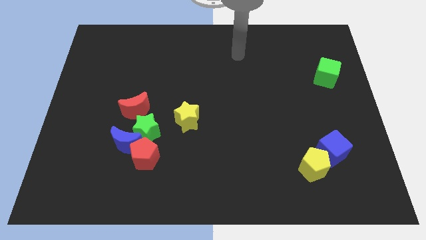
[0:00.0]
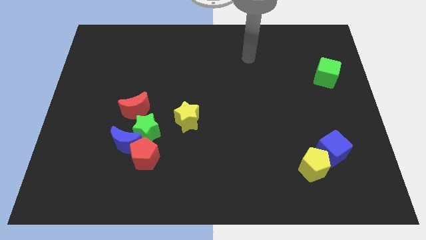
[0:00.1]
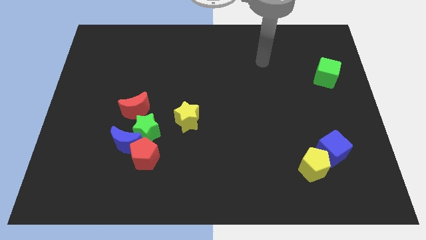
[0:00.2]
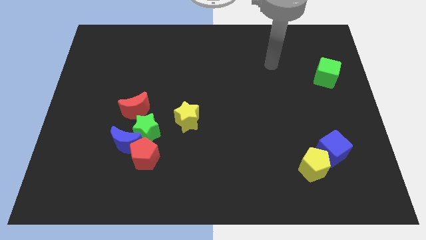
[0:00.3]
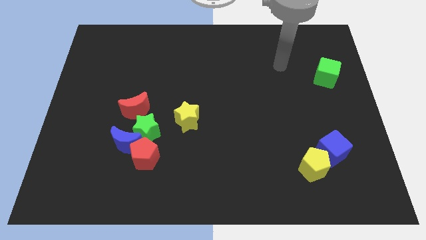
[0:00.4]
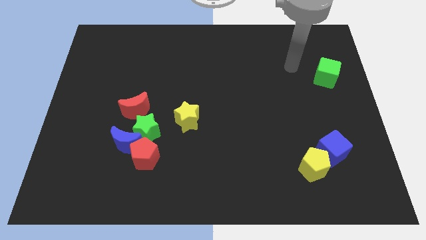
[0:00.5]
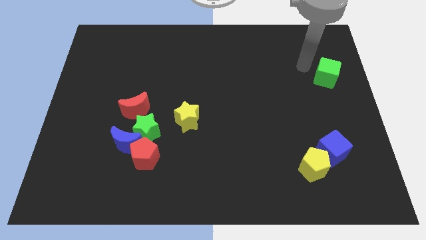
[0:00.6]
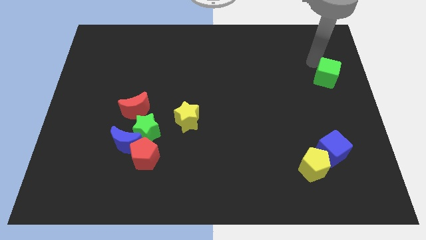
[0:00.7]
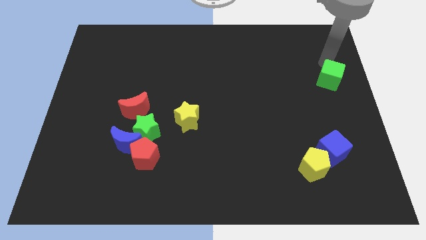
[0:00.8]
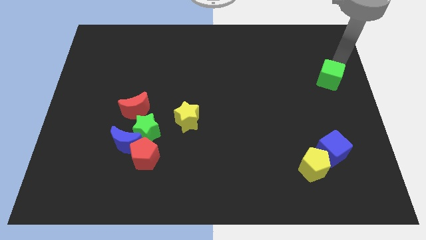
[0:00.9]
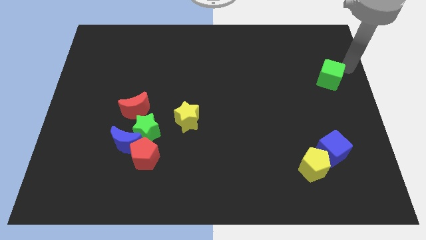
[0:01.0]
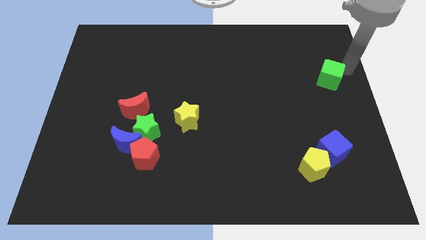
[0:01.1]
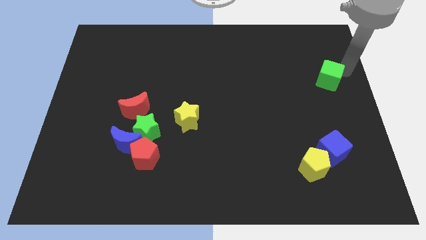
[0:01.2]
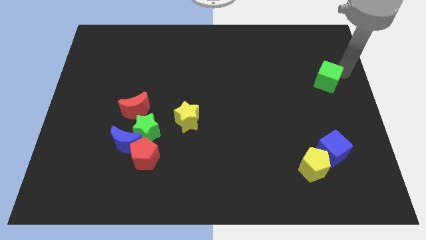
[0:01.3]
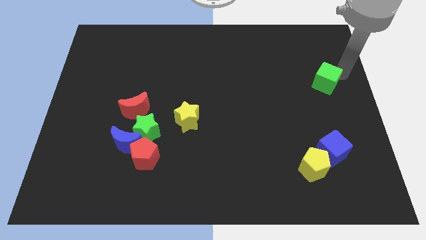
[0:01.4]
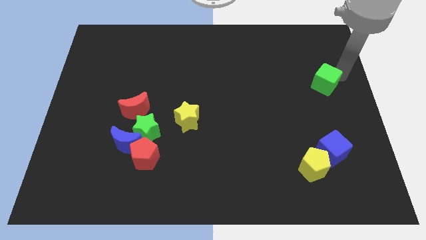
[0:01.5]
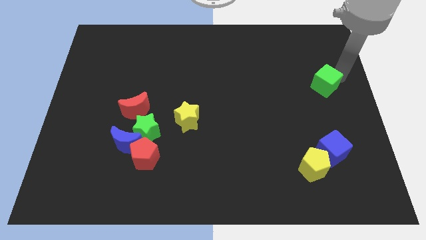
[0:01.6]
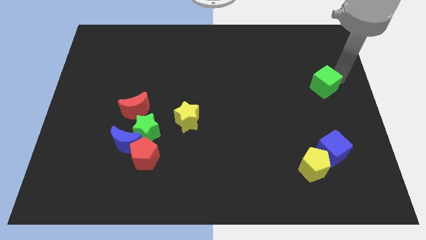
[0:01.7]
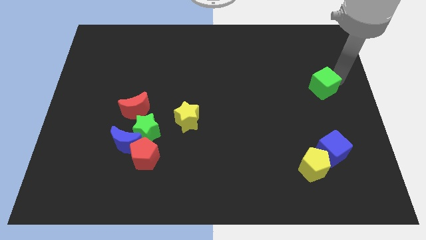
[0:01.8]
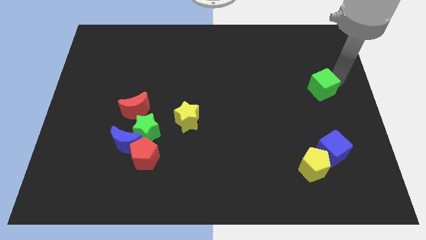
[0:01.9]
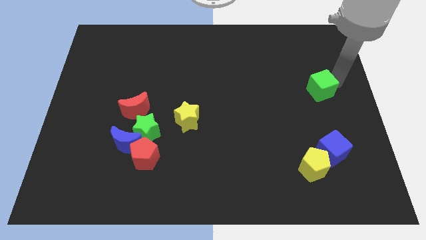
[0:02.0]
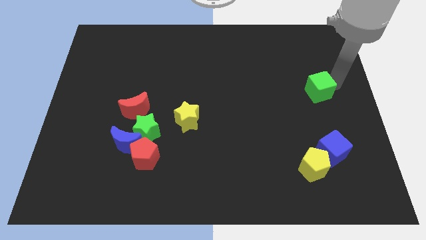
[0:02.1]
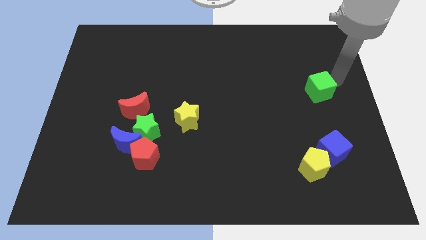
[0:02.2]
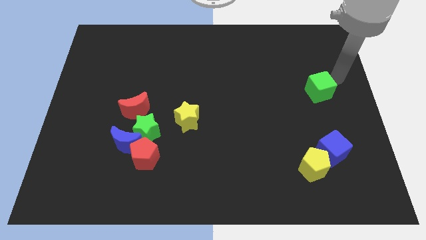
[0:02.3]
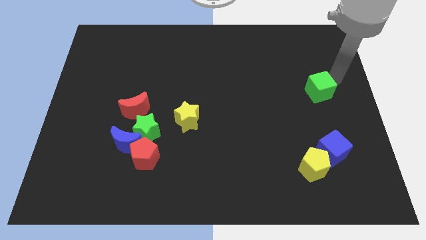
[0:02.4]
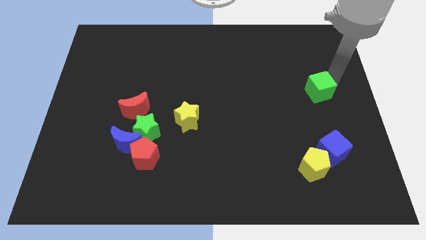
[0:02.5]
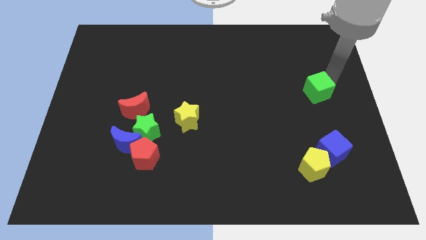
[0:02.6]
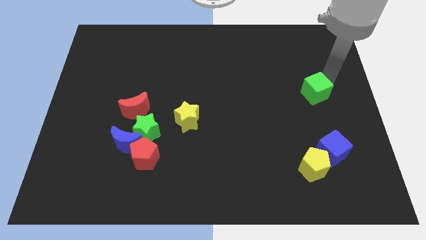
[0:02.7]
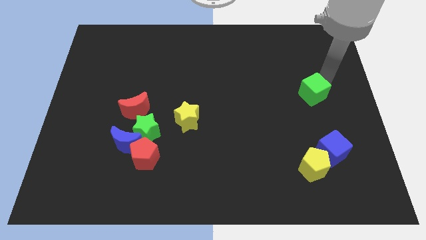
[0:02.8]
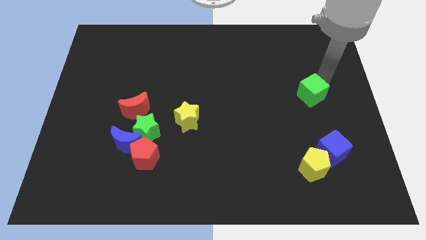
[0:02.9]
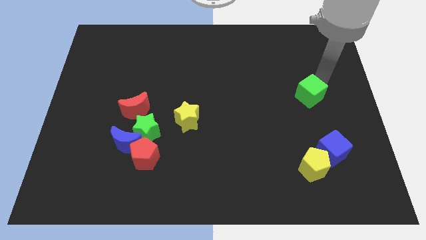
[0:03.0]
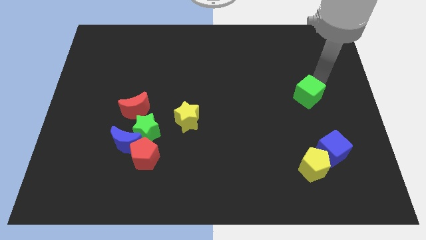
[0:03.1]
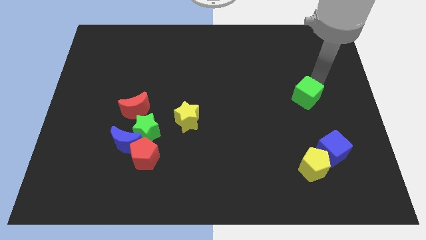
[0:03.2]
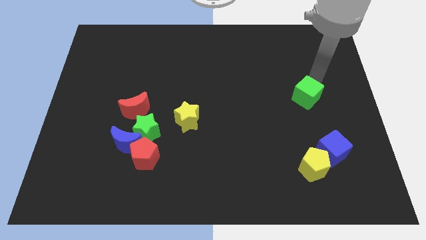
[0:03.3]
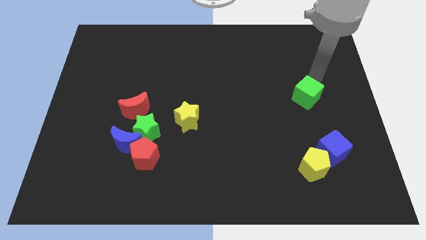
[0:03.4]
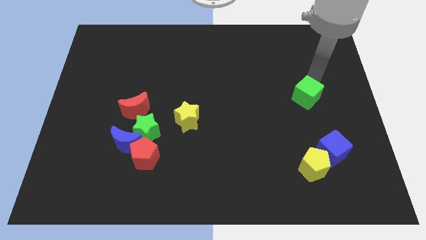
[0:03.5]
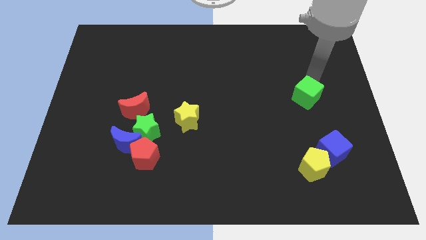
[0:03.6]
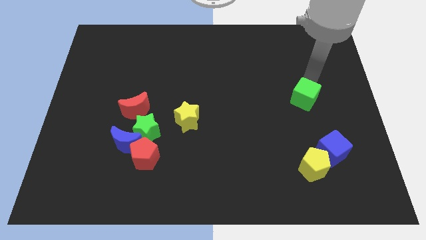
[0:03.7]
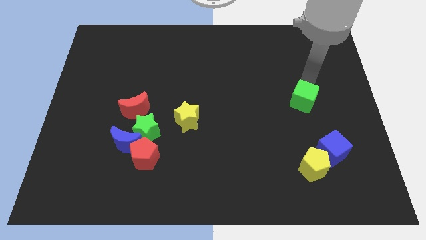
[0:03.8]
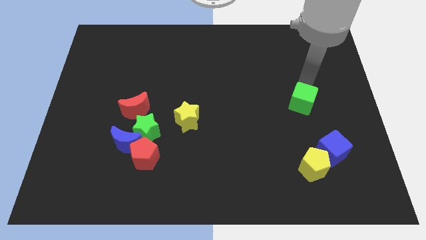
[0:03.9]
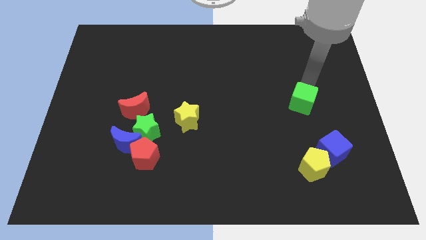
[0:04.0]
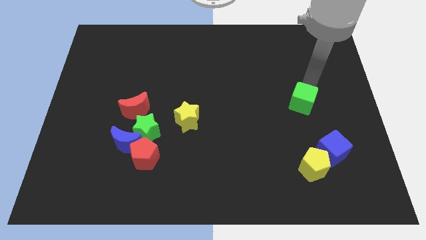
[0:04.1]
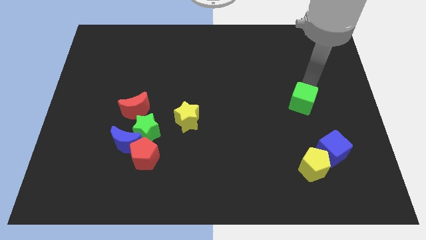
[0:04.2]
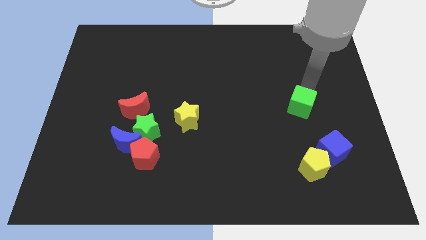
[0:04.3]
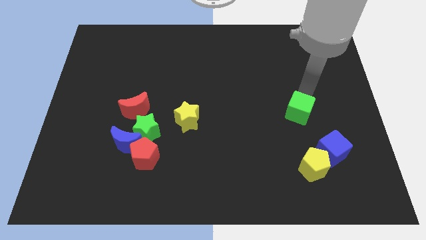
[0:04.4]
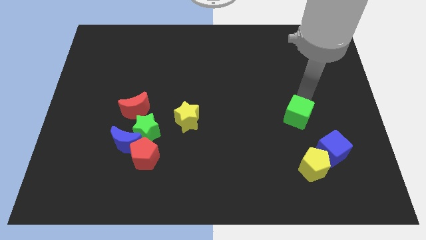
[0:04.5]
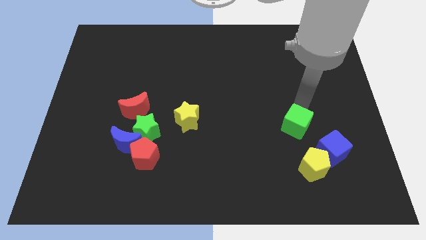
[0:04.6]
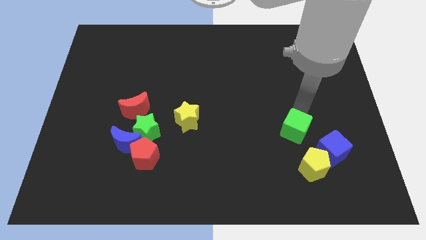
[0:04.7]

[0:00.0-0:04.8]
move the green cube diagonally up and to the left of the yellow pentagon

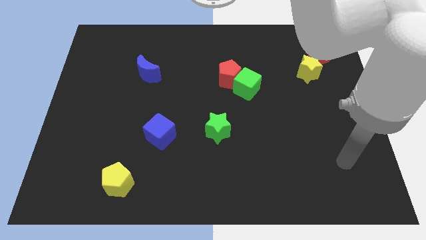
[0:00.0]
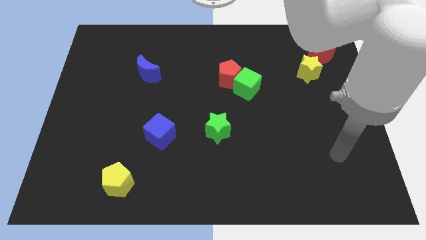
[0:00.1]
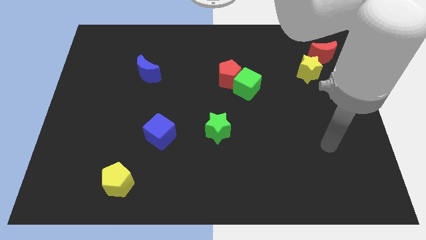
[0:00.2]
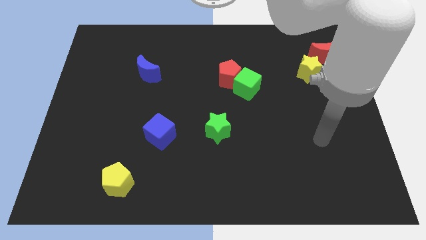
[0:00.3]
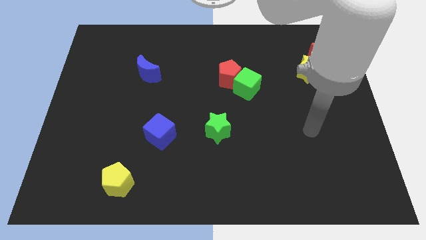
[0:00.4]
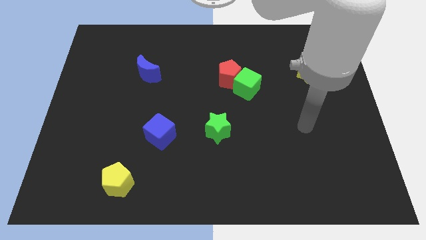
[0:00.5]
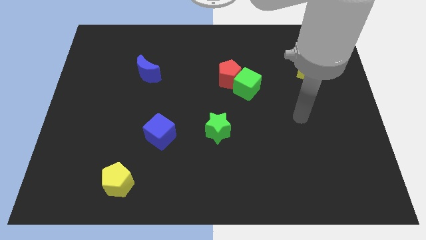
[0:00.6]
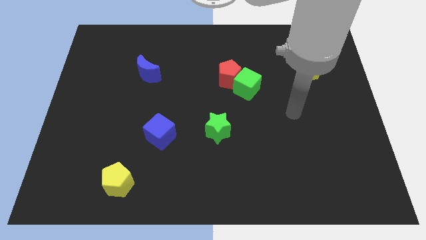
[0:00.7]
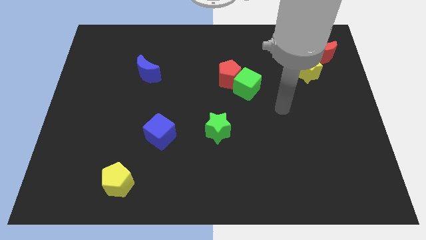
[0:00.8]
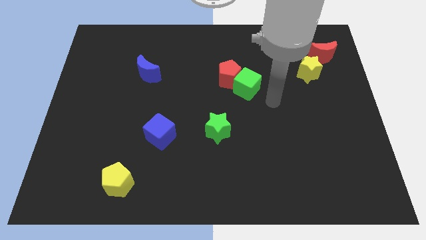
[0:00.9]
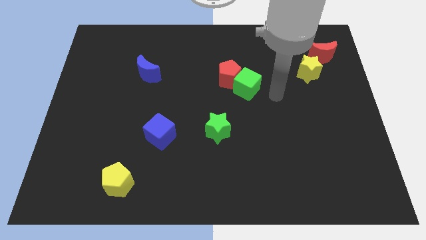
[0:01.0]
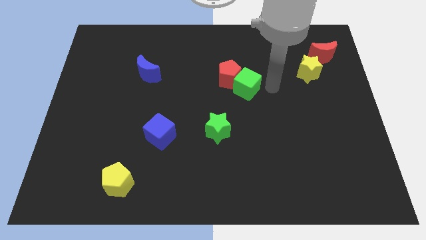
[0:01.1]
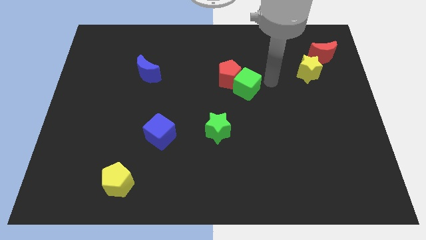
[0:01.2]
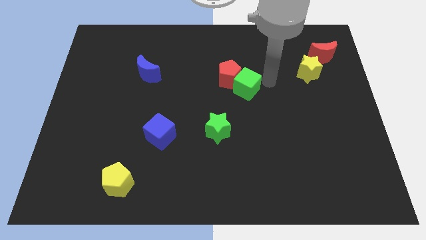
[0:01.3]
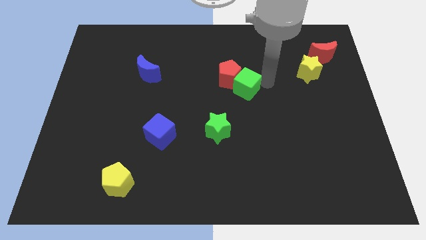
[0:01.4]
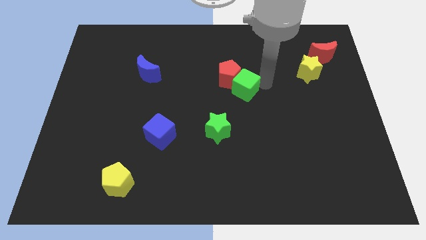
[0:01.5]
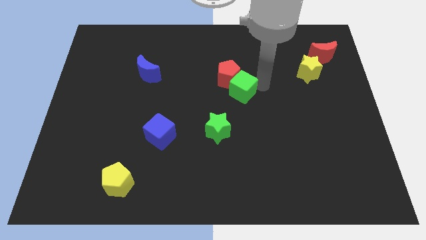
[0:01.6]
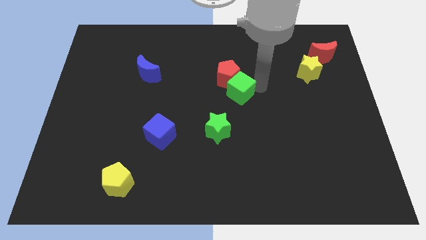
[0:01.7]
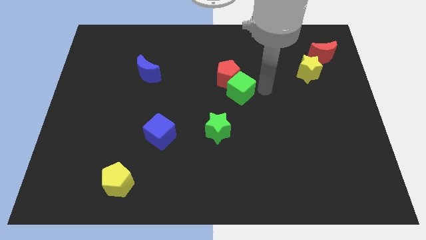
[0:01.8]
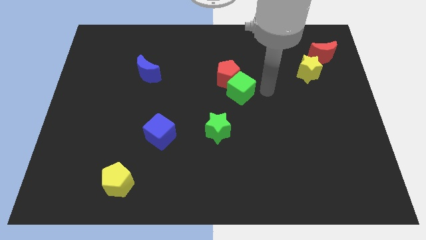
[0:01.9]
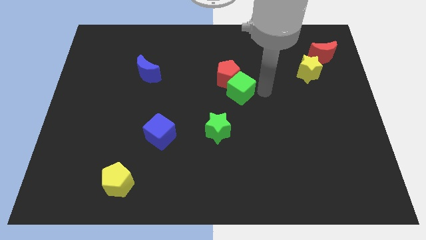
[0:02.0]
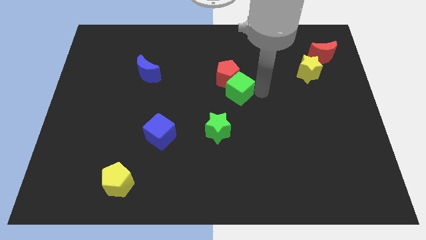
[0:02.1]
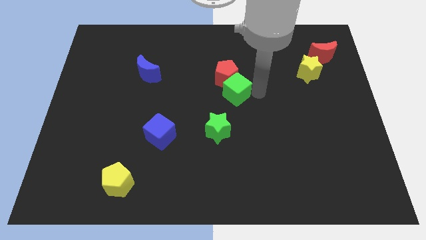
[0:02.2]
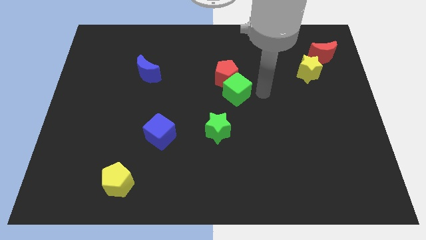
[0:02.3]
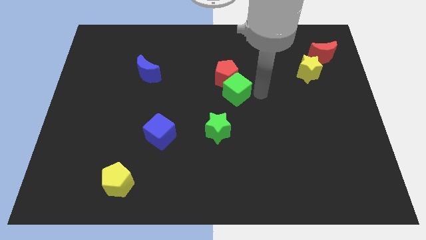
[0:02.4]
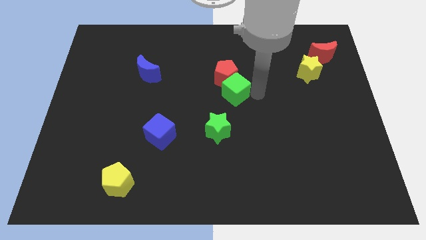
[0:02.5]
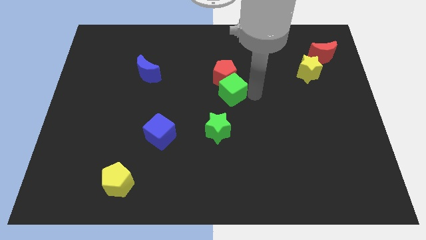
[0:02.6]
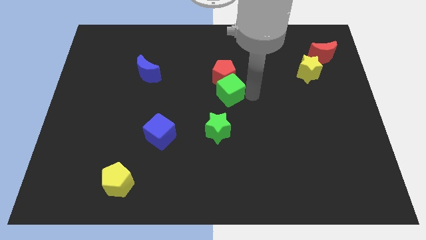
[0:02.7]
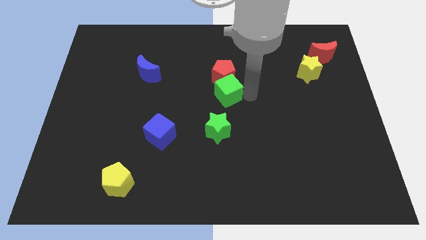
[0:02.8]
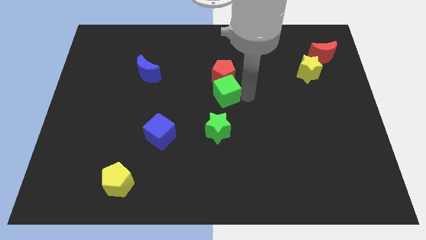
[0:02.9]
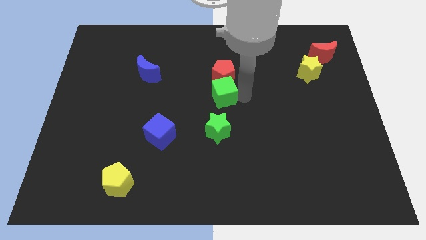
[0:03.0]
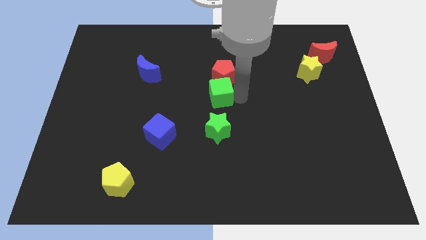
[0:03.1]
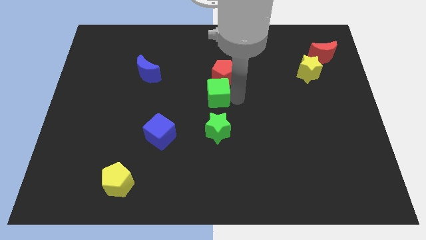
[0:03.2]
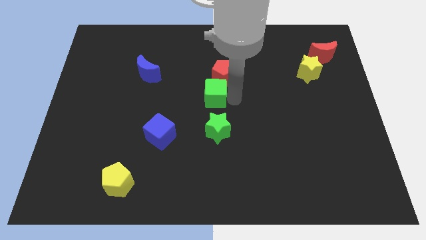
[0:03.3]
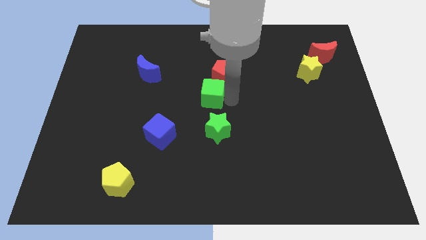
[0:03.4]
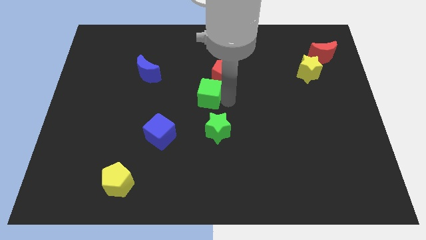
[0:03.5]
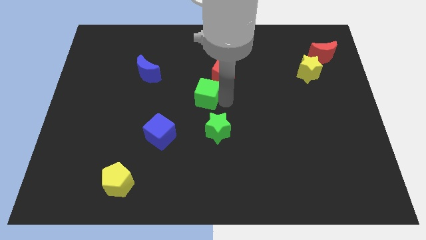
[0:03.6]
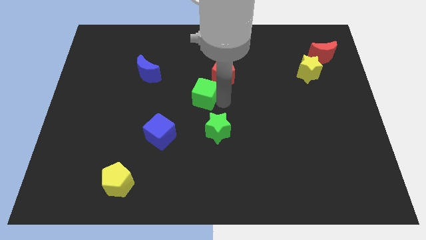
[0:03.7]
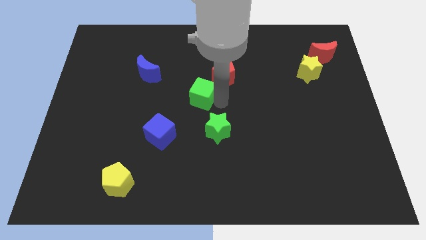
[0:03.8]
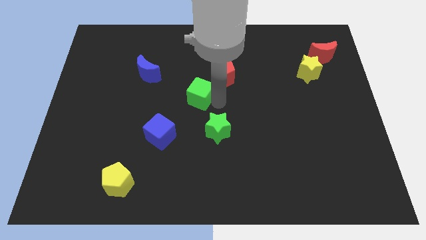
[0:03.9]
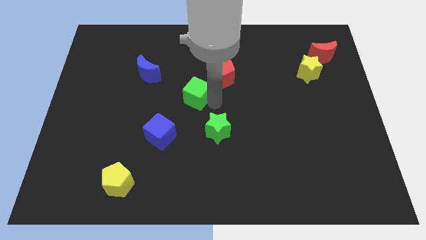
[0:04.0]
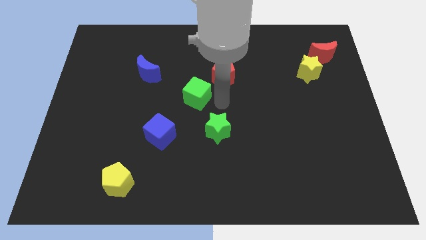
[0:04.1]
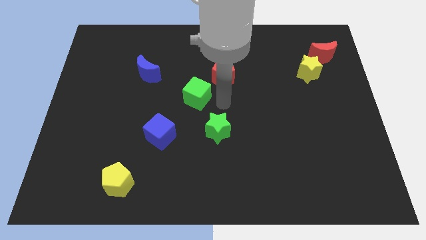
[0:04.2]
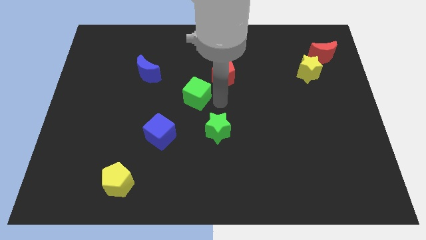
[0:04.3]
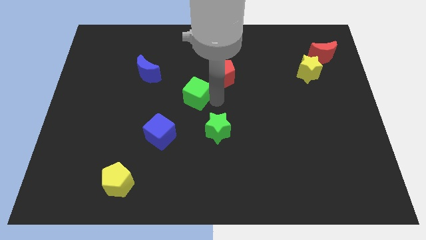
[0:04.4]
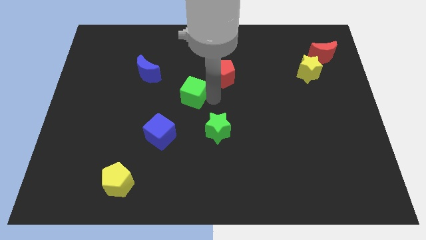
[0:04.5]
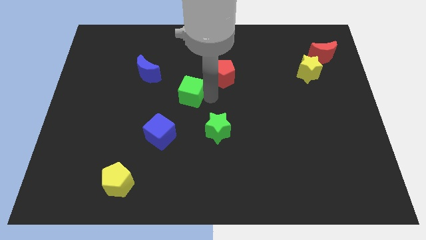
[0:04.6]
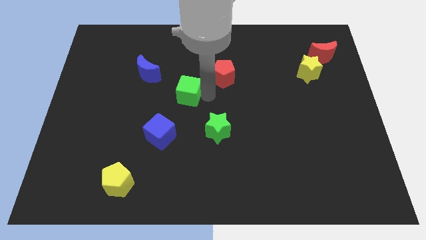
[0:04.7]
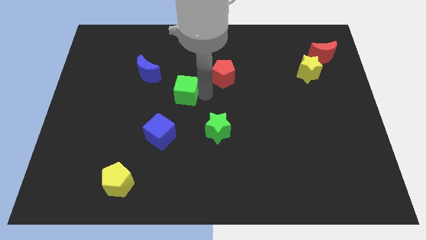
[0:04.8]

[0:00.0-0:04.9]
slide the green cube diagonally down and to the right of the blue moon
